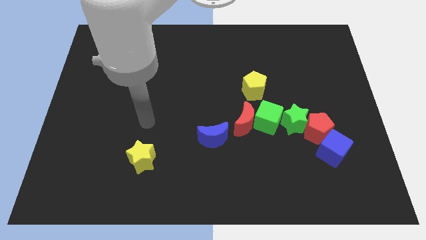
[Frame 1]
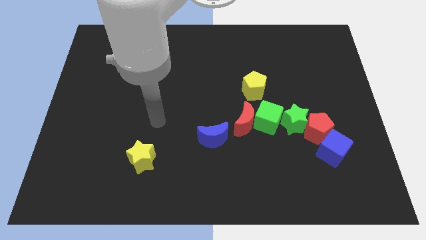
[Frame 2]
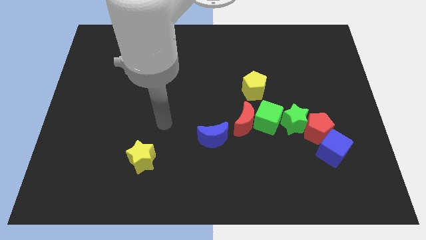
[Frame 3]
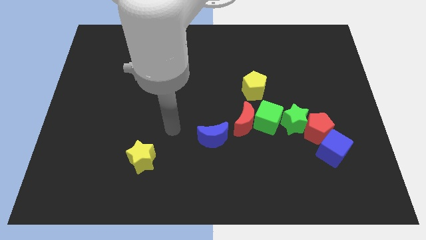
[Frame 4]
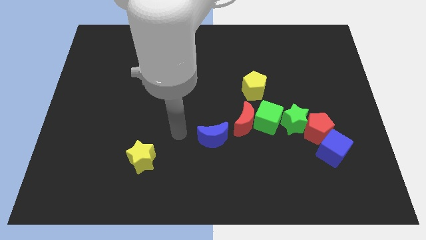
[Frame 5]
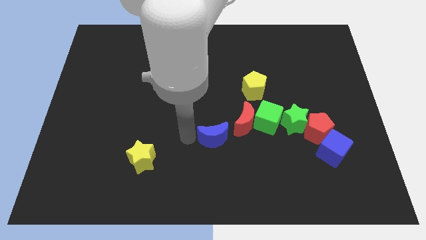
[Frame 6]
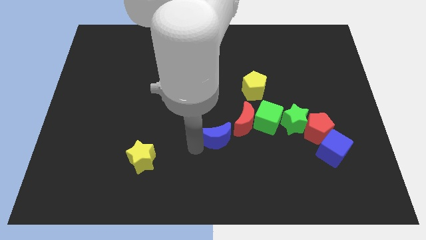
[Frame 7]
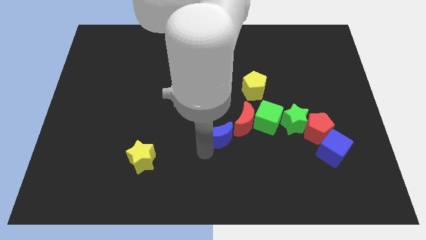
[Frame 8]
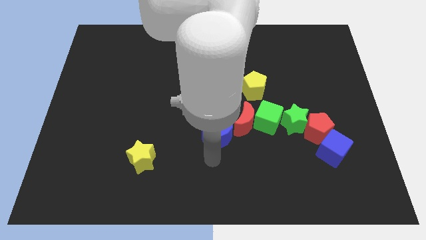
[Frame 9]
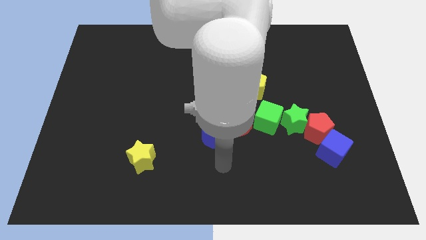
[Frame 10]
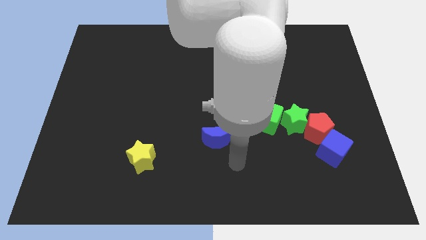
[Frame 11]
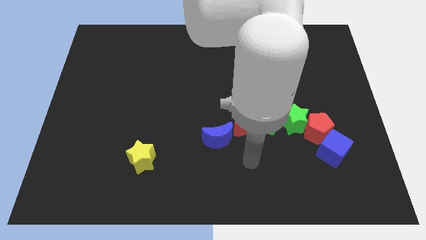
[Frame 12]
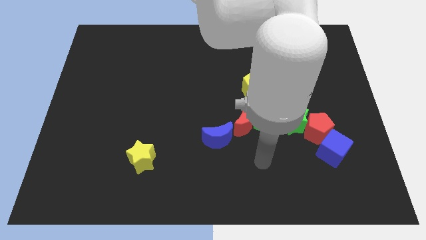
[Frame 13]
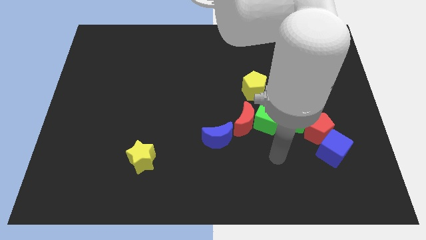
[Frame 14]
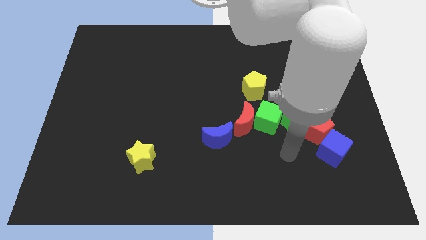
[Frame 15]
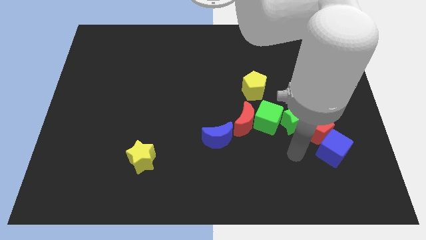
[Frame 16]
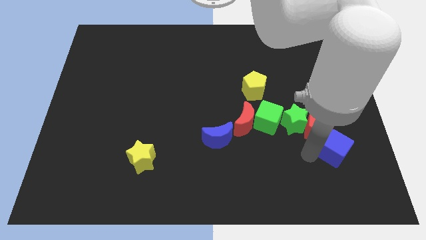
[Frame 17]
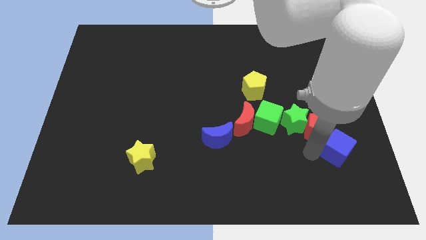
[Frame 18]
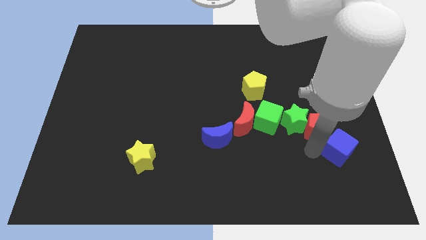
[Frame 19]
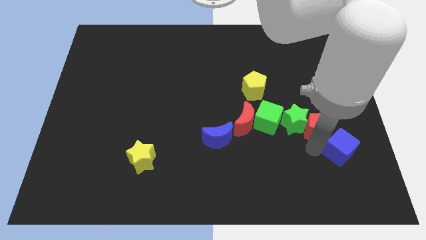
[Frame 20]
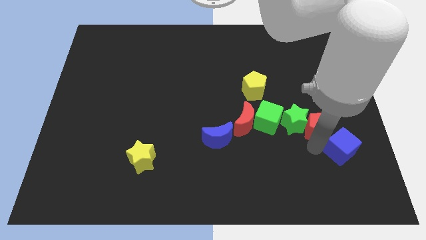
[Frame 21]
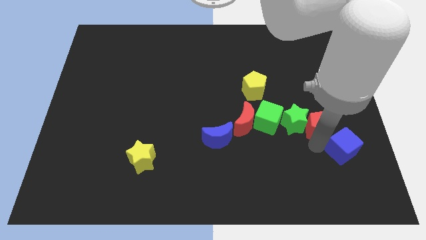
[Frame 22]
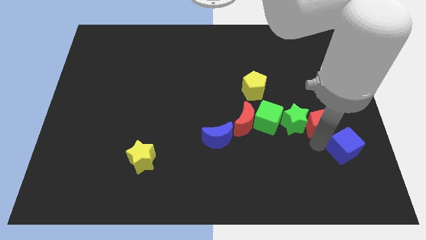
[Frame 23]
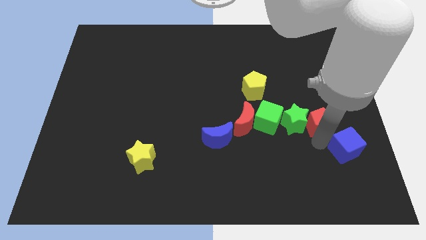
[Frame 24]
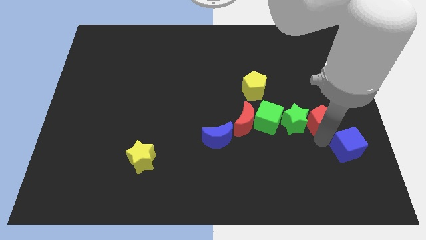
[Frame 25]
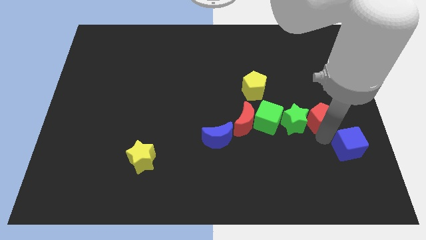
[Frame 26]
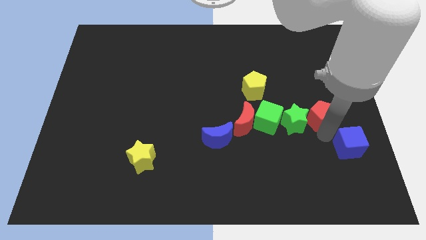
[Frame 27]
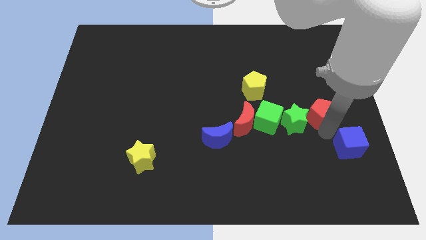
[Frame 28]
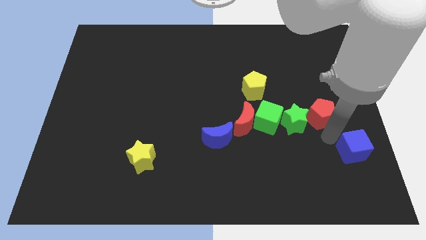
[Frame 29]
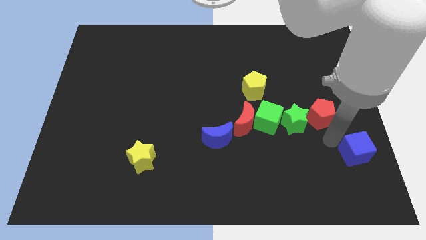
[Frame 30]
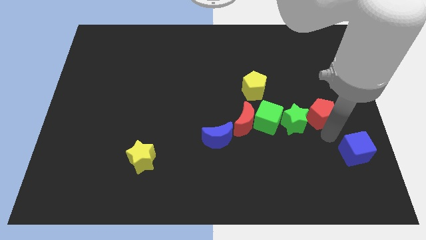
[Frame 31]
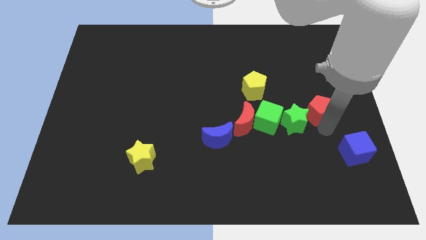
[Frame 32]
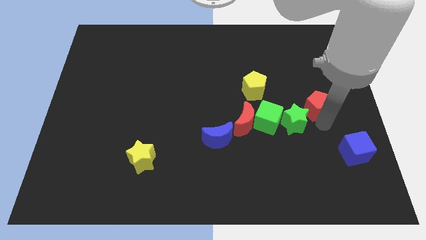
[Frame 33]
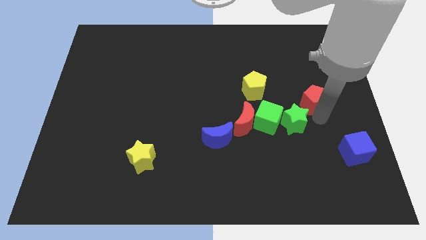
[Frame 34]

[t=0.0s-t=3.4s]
move the red pentagon up somewhat

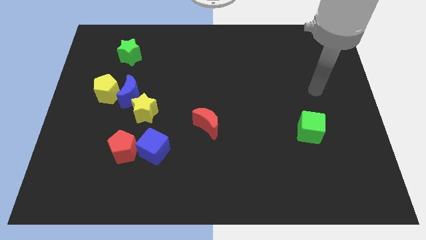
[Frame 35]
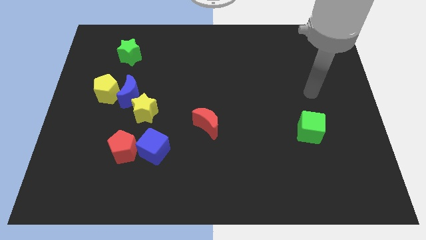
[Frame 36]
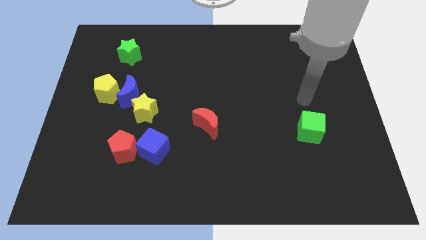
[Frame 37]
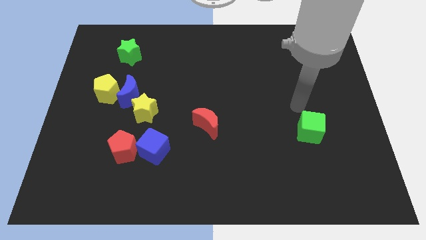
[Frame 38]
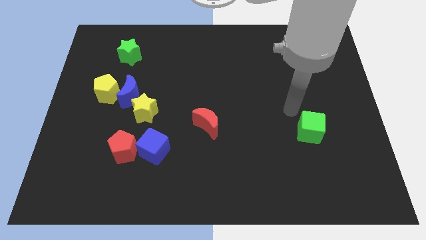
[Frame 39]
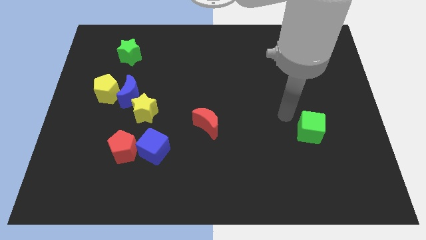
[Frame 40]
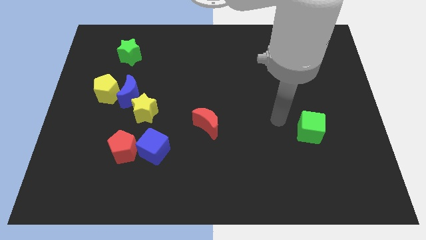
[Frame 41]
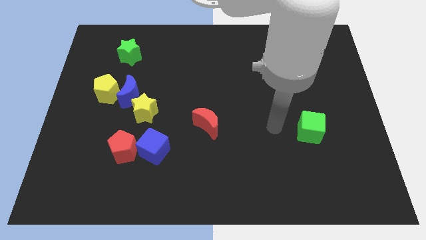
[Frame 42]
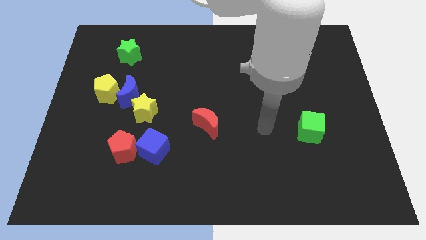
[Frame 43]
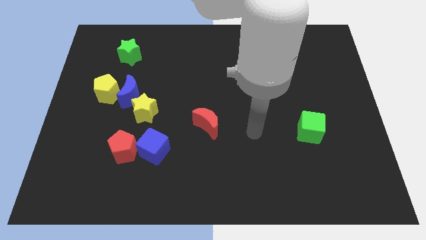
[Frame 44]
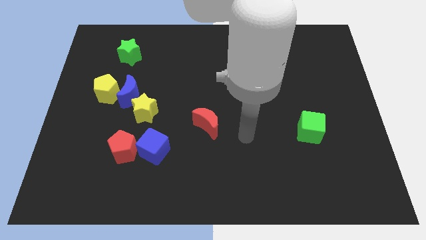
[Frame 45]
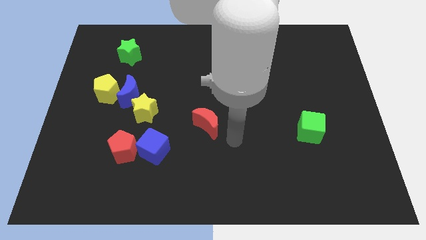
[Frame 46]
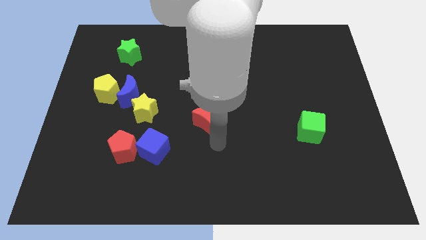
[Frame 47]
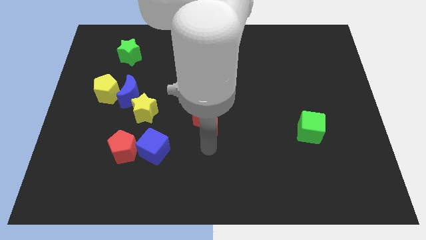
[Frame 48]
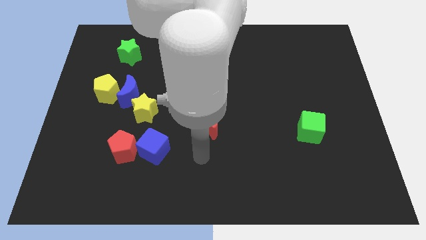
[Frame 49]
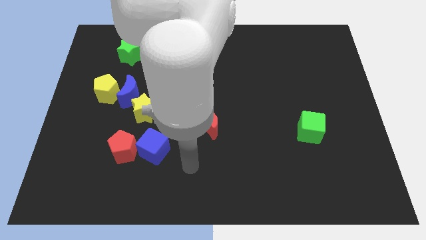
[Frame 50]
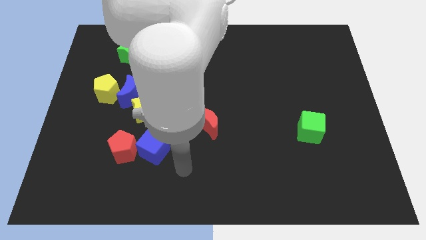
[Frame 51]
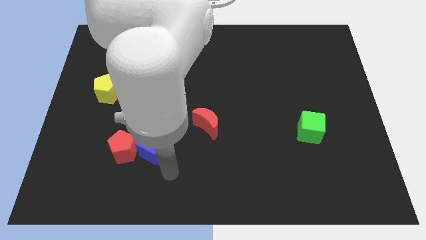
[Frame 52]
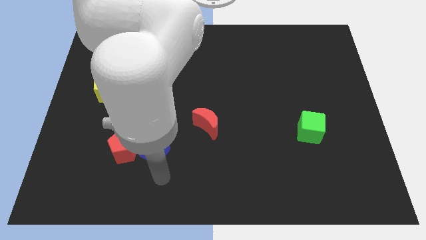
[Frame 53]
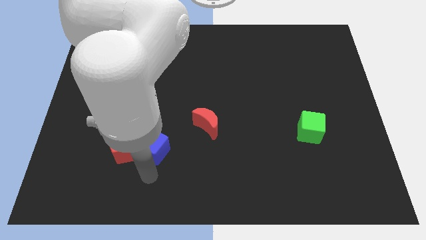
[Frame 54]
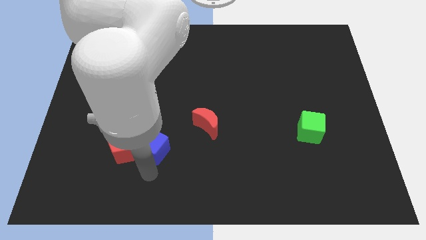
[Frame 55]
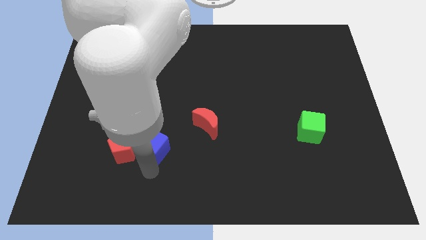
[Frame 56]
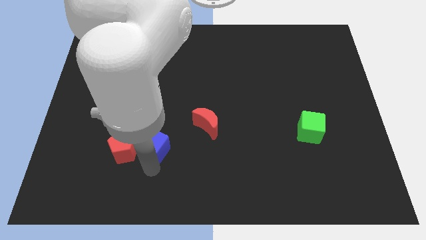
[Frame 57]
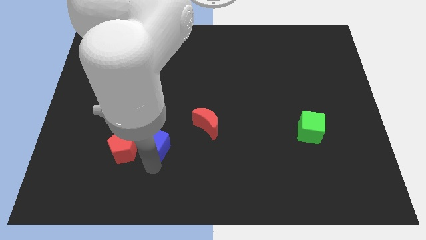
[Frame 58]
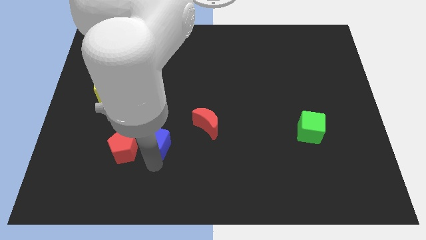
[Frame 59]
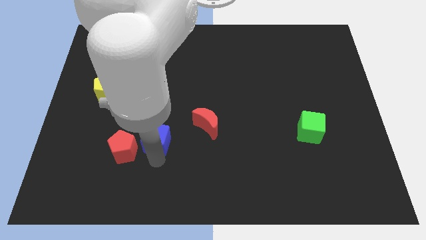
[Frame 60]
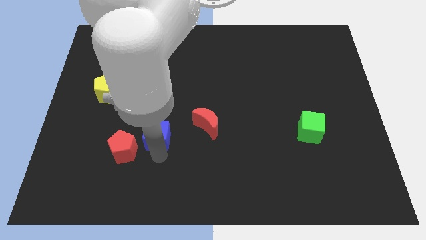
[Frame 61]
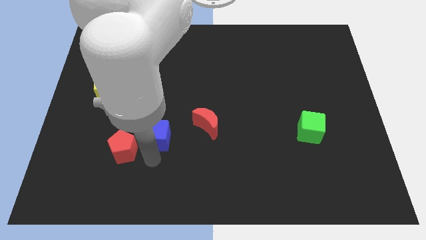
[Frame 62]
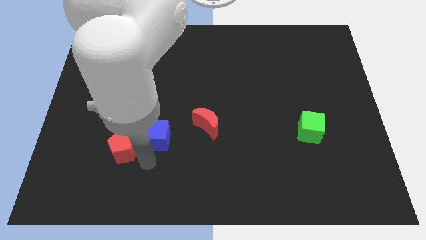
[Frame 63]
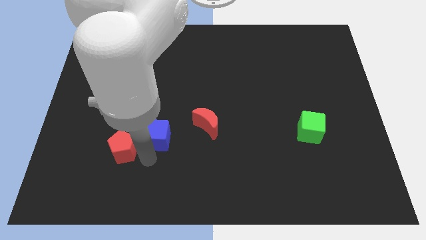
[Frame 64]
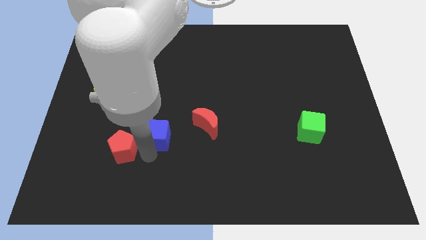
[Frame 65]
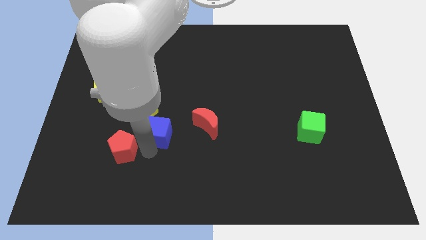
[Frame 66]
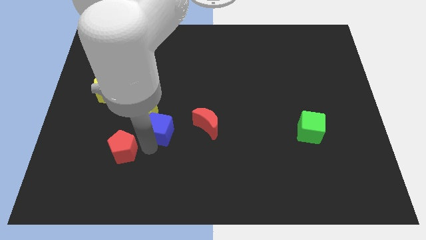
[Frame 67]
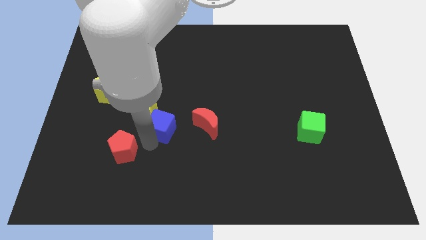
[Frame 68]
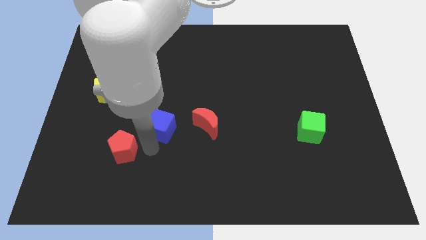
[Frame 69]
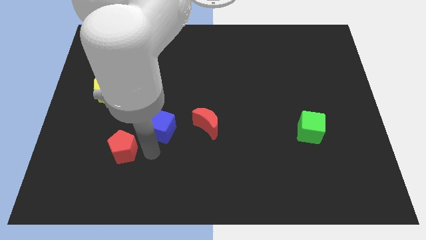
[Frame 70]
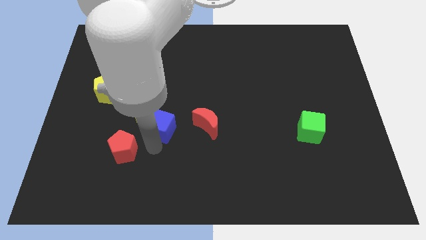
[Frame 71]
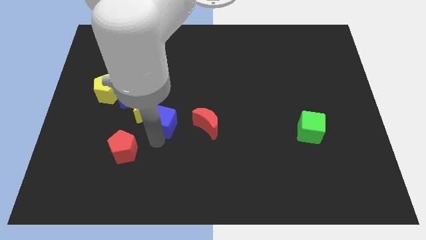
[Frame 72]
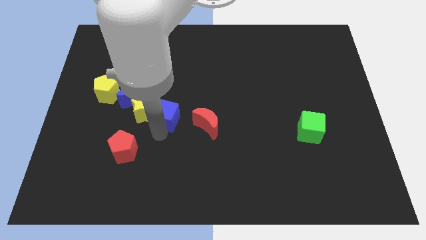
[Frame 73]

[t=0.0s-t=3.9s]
push the blue cube up a little

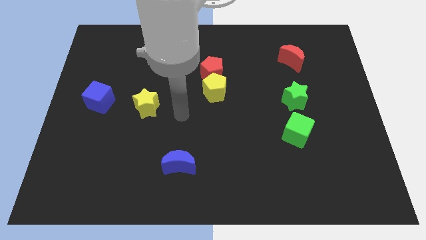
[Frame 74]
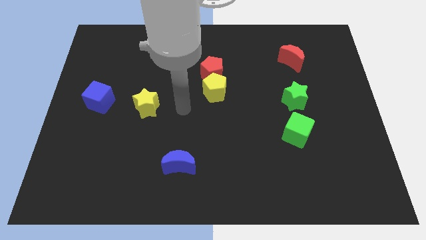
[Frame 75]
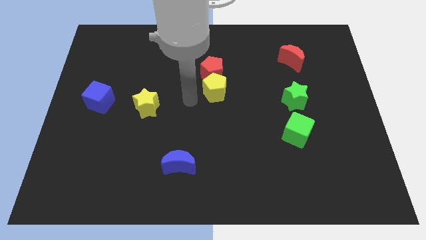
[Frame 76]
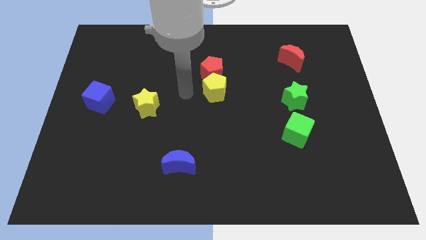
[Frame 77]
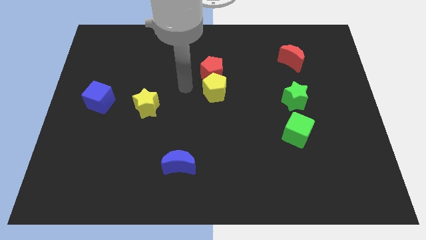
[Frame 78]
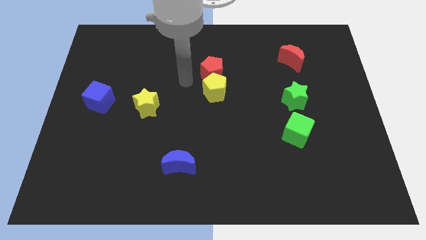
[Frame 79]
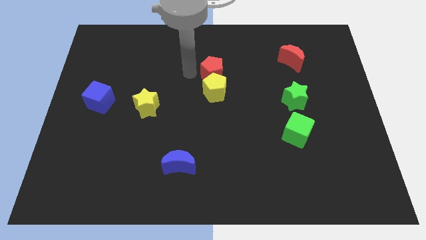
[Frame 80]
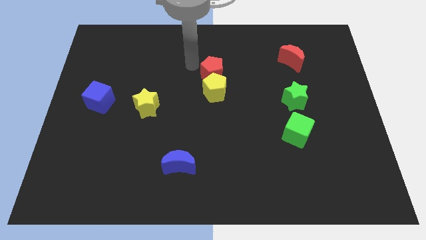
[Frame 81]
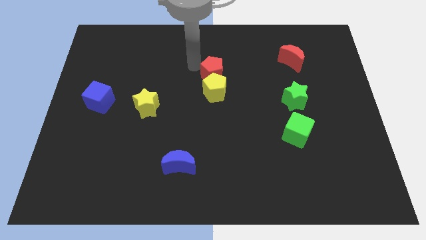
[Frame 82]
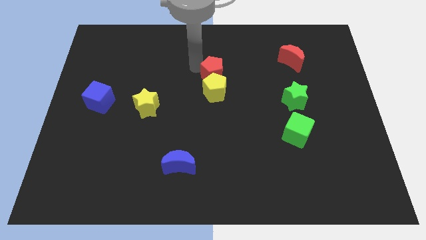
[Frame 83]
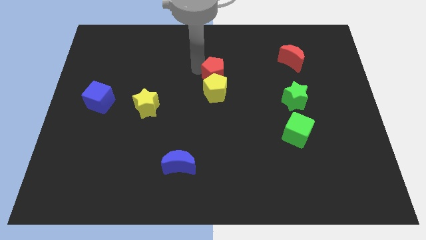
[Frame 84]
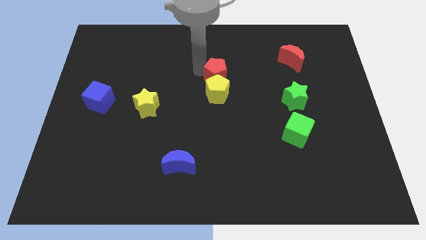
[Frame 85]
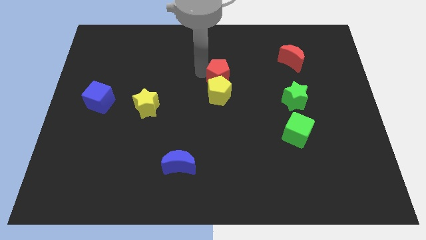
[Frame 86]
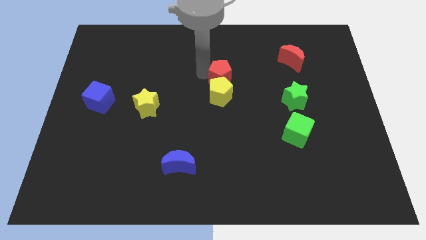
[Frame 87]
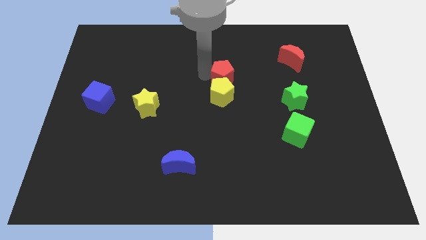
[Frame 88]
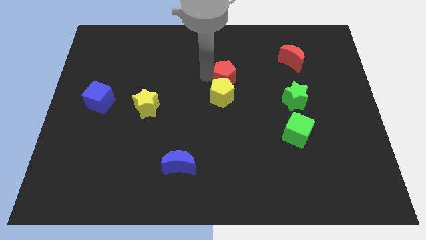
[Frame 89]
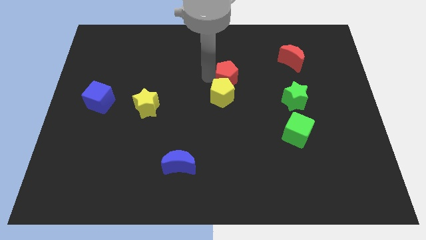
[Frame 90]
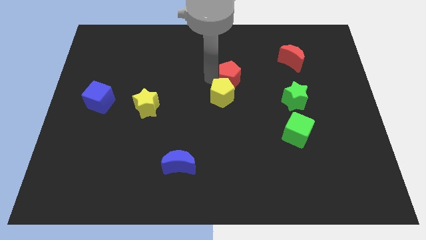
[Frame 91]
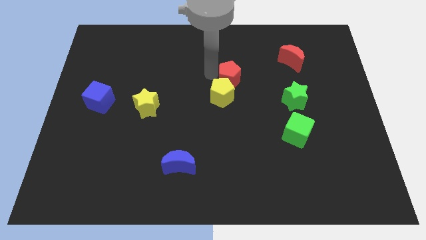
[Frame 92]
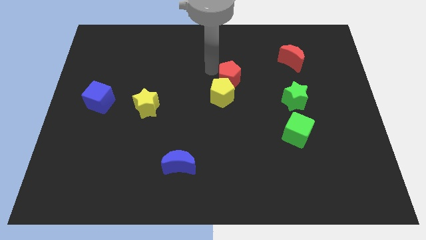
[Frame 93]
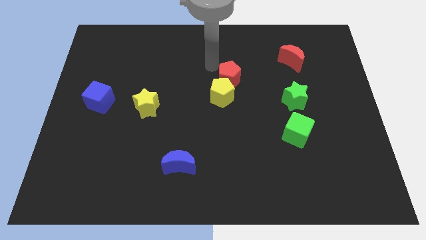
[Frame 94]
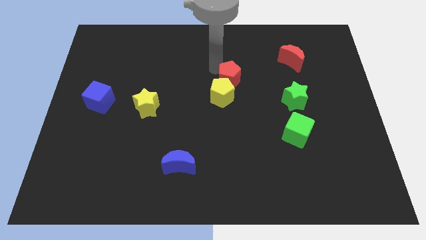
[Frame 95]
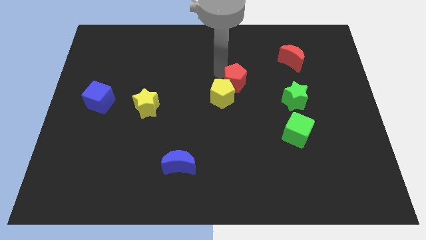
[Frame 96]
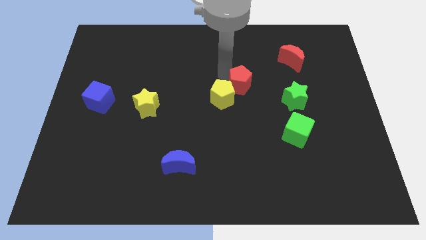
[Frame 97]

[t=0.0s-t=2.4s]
move the red pentagon diagonally down and to the right a little
